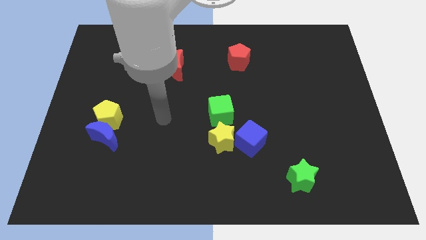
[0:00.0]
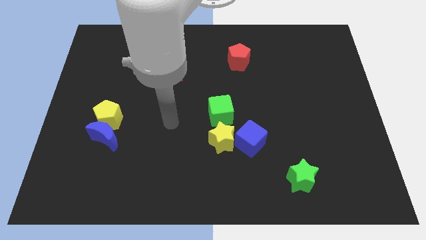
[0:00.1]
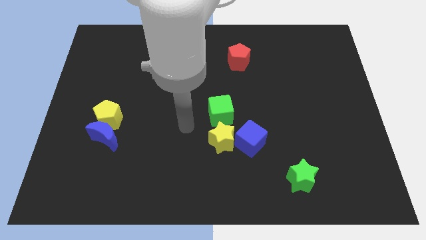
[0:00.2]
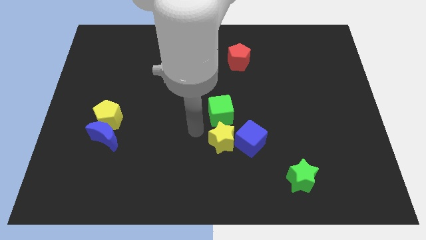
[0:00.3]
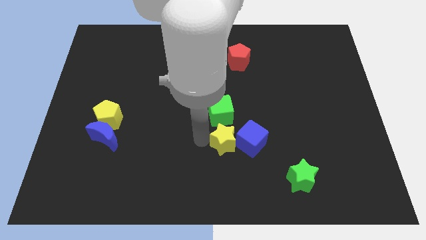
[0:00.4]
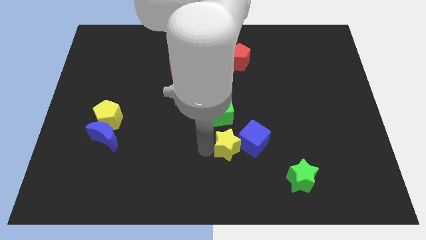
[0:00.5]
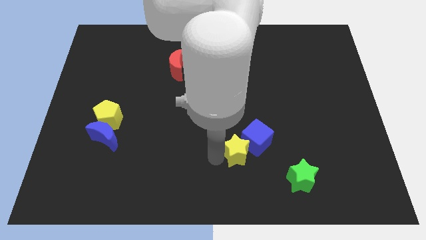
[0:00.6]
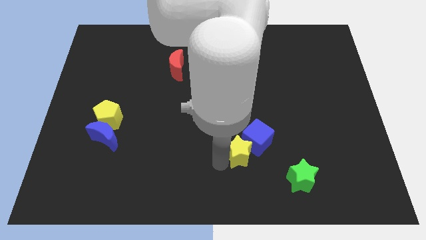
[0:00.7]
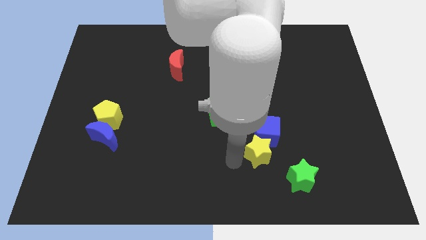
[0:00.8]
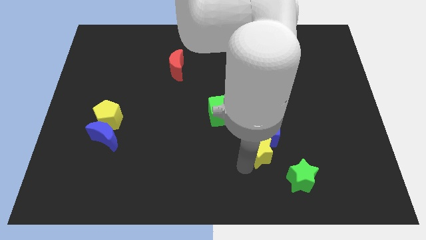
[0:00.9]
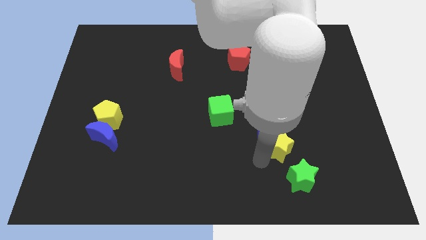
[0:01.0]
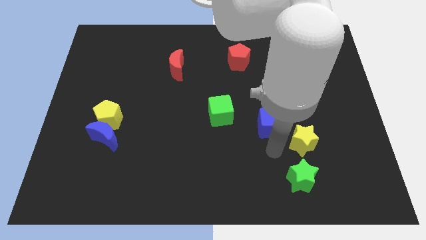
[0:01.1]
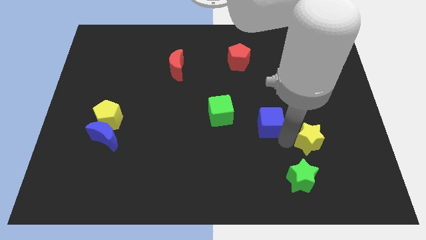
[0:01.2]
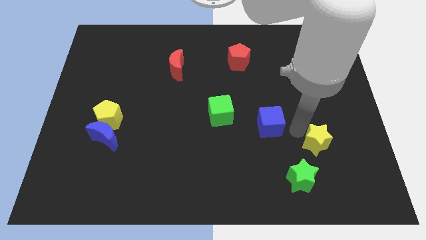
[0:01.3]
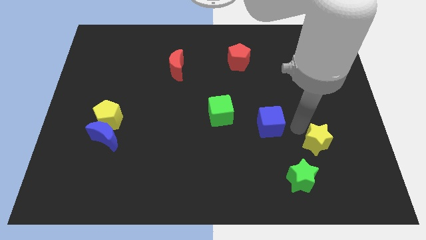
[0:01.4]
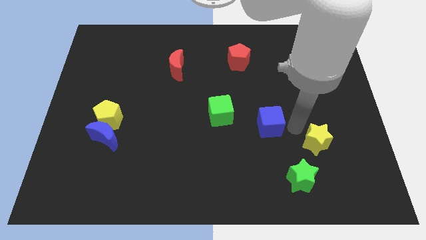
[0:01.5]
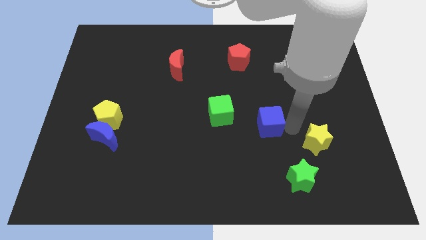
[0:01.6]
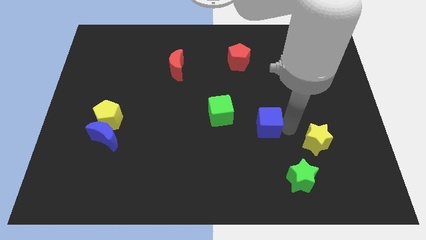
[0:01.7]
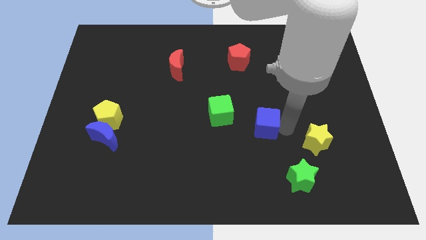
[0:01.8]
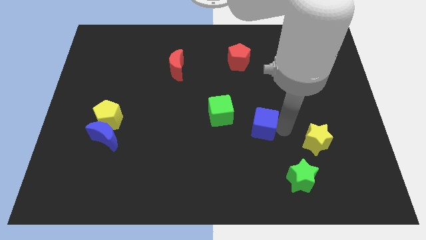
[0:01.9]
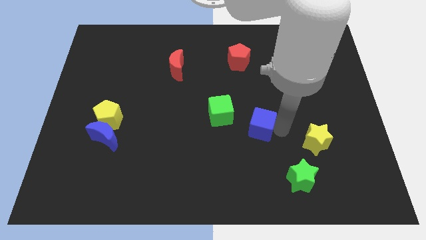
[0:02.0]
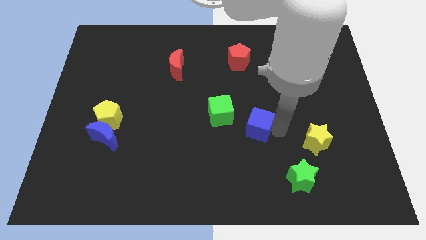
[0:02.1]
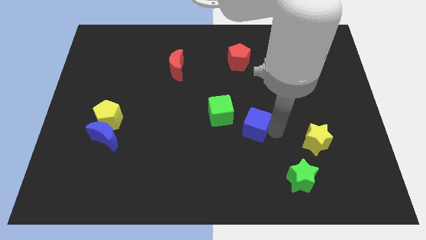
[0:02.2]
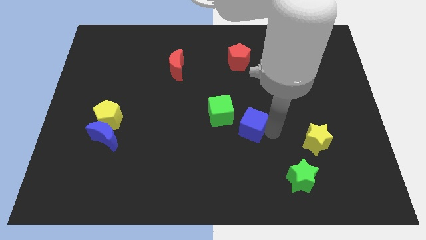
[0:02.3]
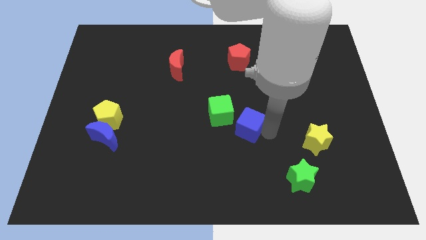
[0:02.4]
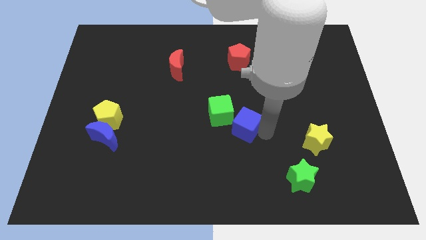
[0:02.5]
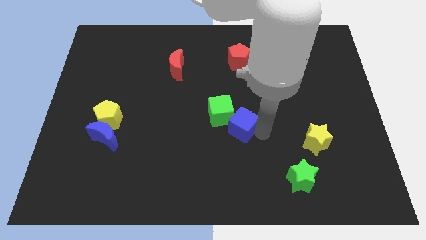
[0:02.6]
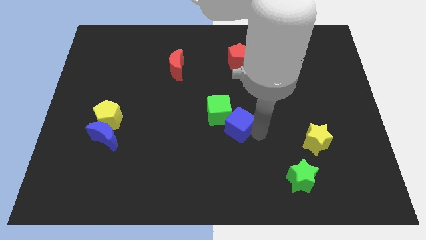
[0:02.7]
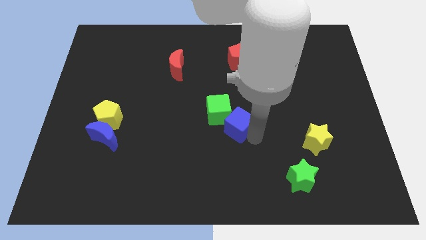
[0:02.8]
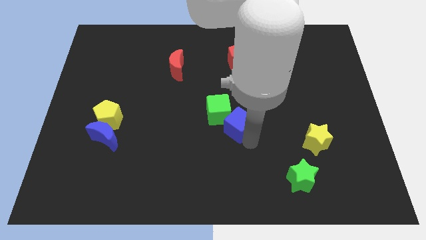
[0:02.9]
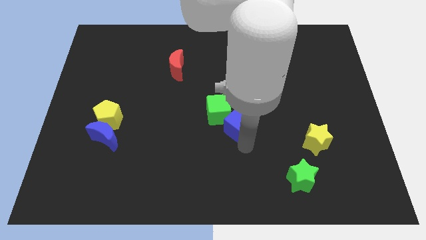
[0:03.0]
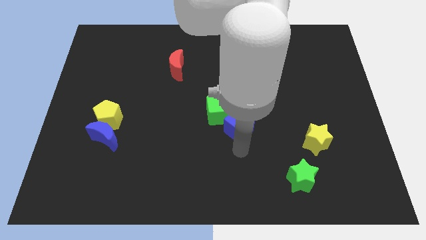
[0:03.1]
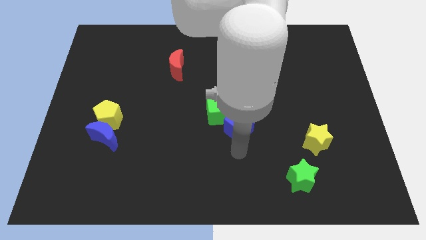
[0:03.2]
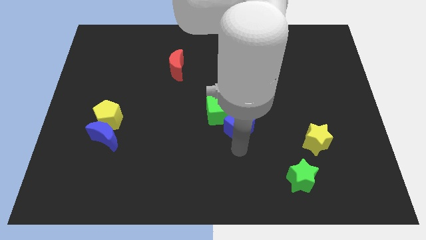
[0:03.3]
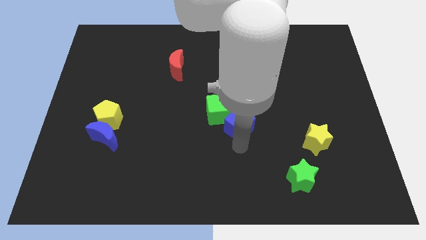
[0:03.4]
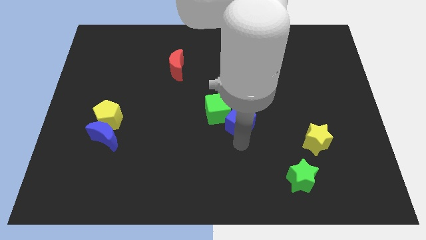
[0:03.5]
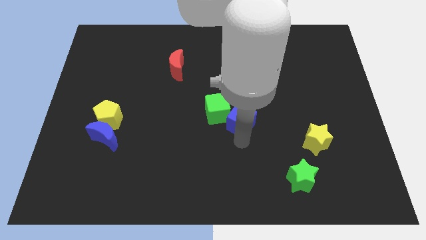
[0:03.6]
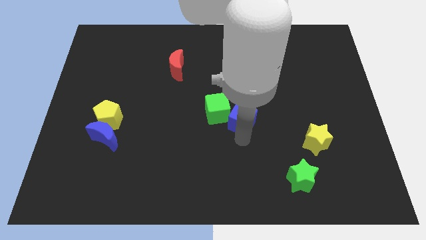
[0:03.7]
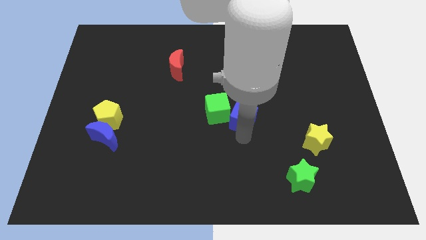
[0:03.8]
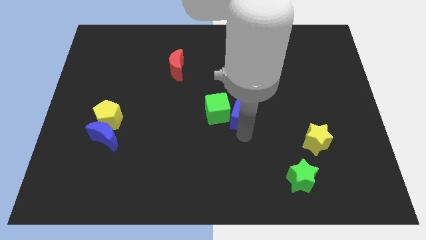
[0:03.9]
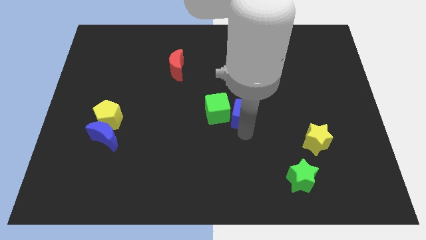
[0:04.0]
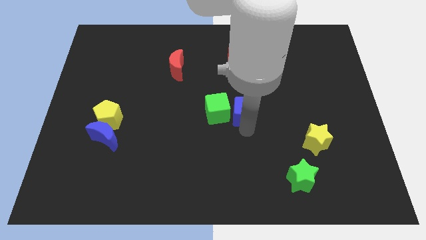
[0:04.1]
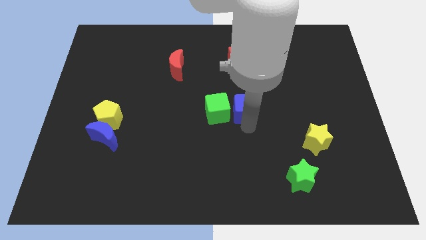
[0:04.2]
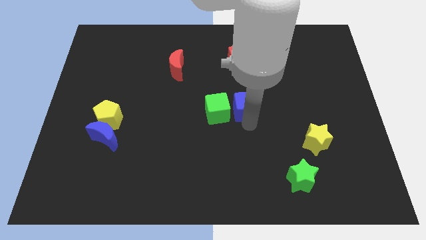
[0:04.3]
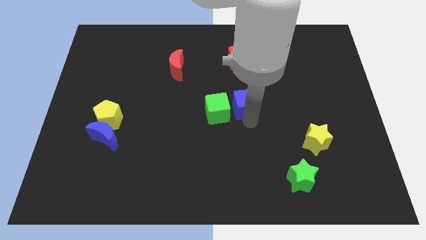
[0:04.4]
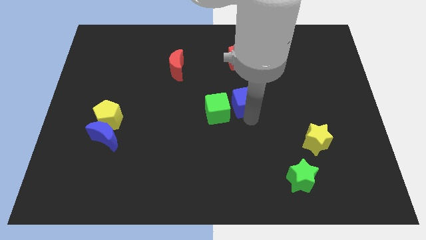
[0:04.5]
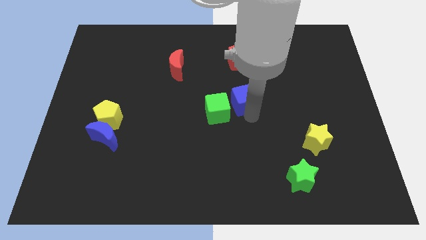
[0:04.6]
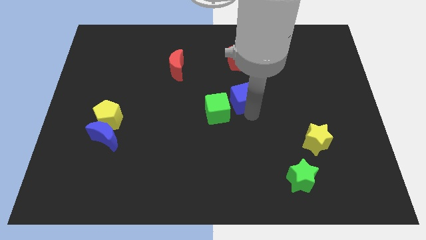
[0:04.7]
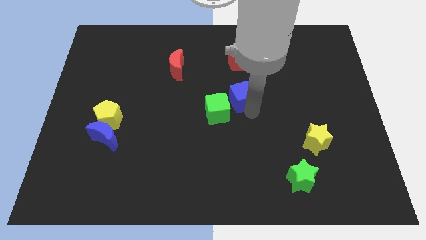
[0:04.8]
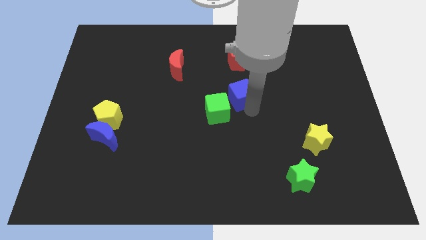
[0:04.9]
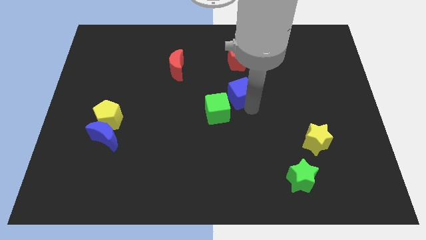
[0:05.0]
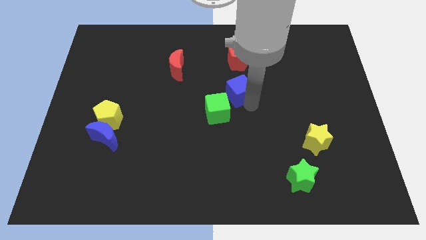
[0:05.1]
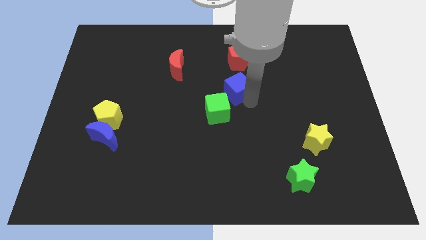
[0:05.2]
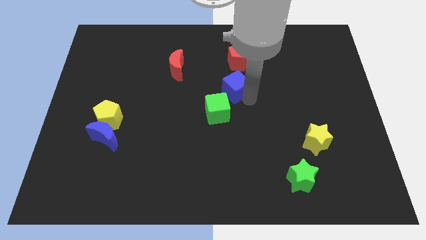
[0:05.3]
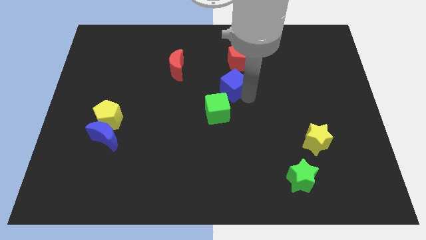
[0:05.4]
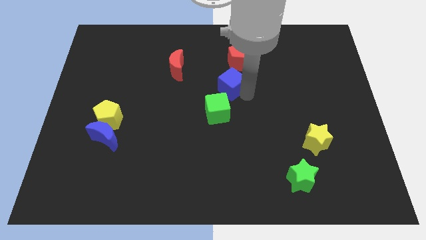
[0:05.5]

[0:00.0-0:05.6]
push the blue cube diagonally down and to the left of the red pentagon

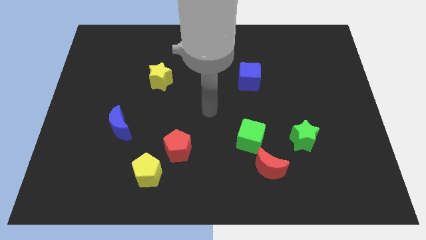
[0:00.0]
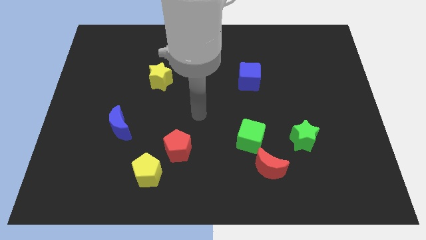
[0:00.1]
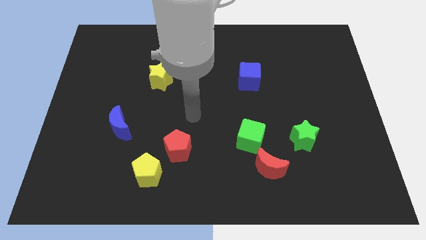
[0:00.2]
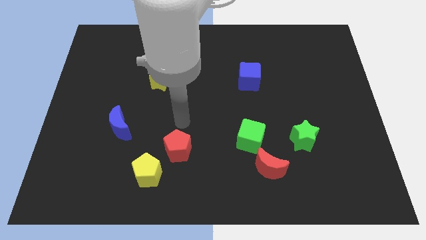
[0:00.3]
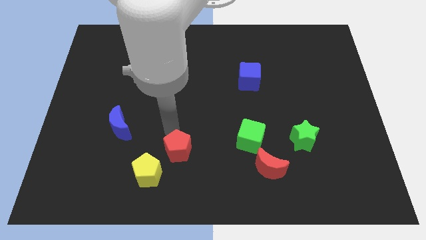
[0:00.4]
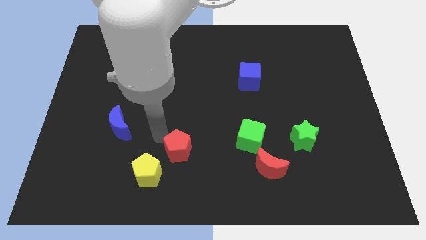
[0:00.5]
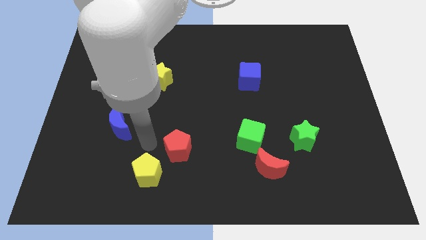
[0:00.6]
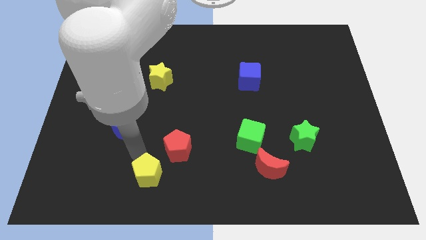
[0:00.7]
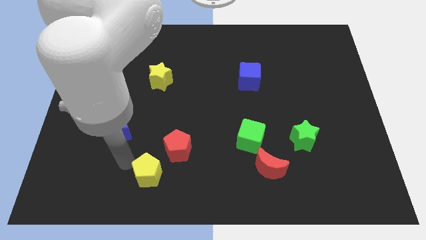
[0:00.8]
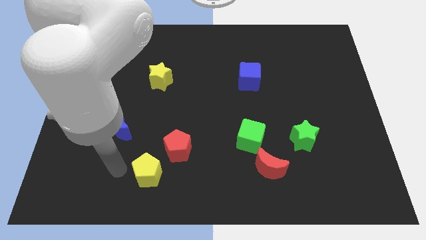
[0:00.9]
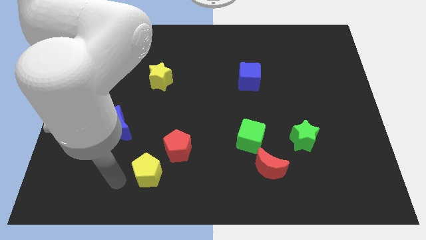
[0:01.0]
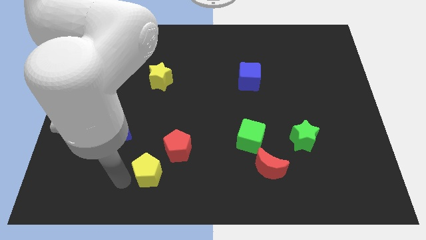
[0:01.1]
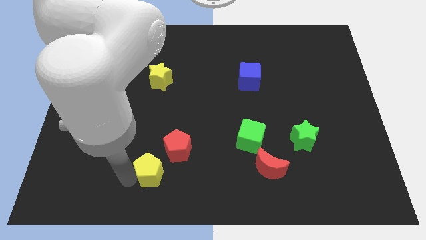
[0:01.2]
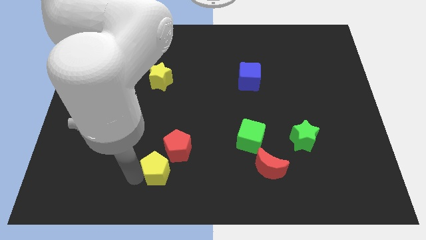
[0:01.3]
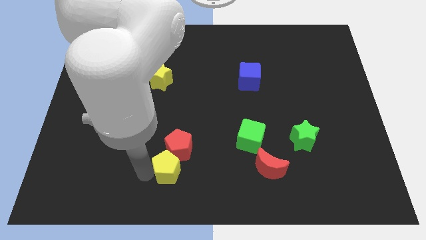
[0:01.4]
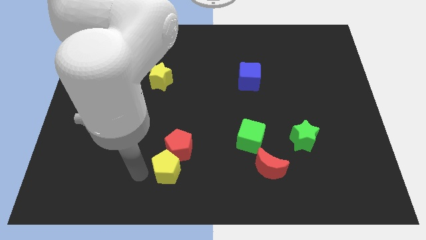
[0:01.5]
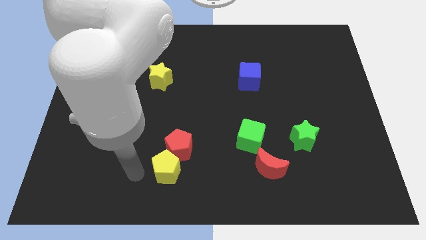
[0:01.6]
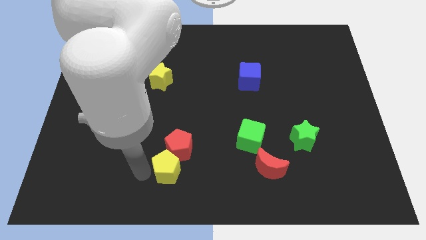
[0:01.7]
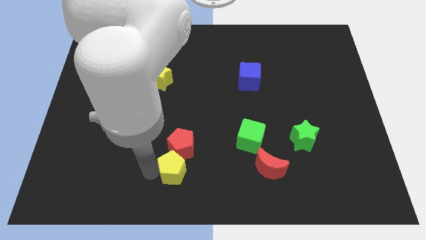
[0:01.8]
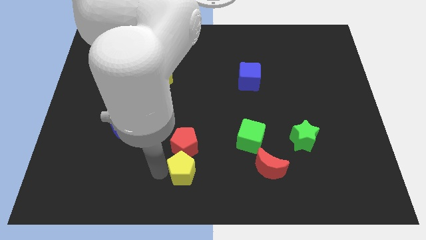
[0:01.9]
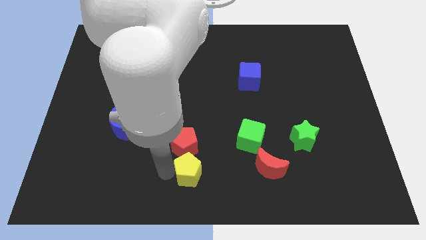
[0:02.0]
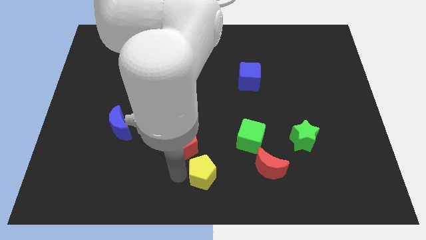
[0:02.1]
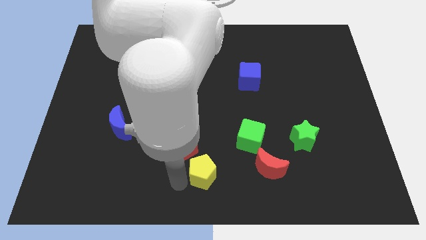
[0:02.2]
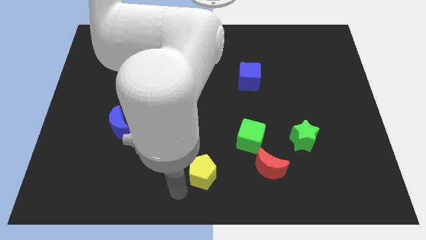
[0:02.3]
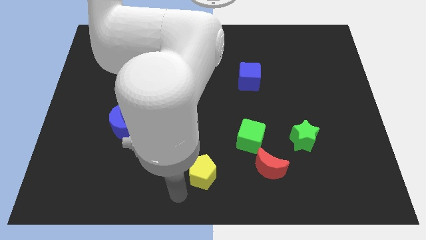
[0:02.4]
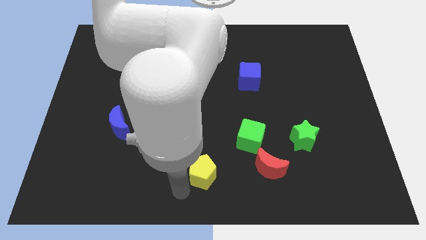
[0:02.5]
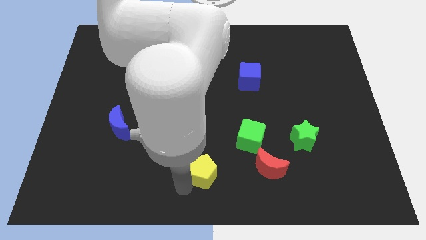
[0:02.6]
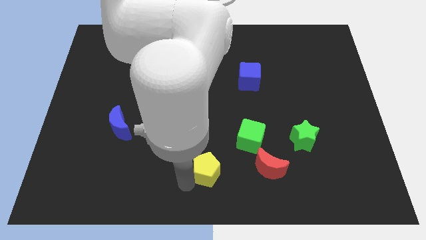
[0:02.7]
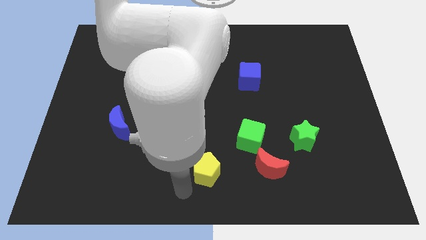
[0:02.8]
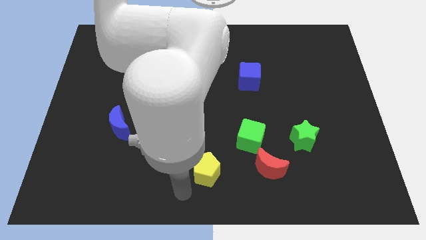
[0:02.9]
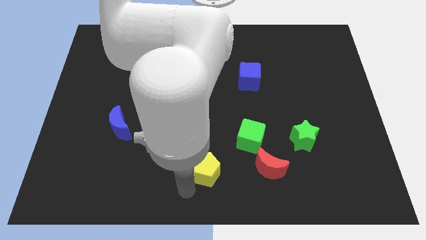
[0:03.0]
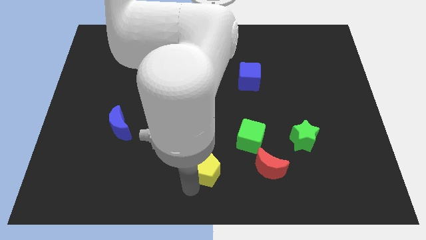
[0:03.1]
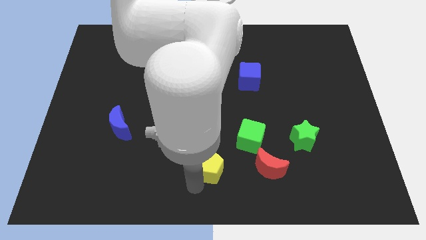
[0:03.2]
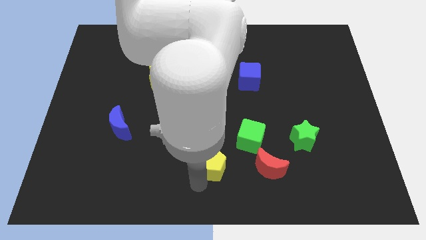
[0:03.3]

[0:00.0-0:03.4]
put the yellow pentagon just right of the red pentagon
